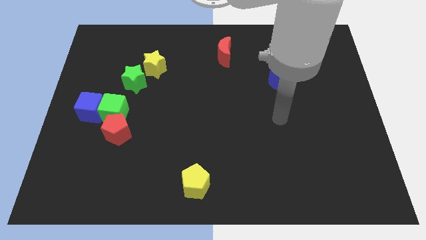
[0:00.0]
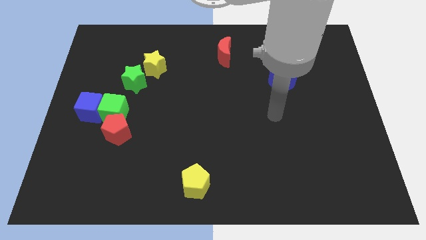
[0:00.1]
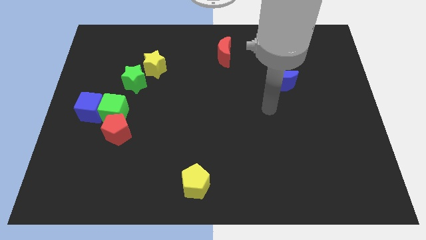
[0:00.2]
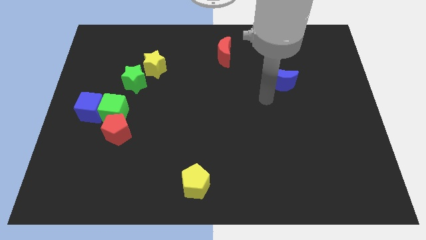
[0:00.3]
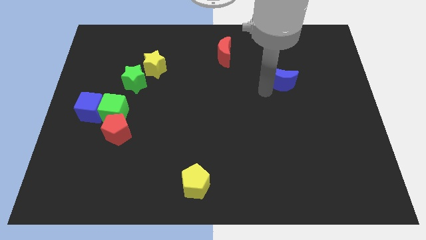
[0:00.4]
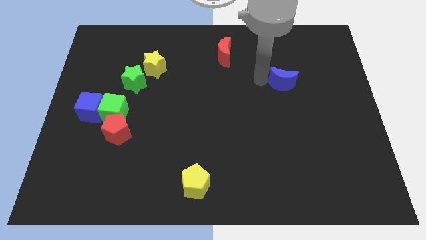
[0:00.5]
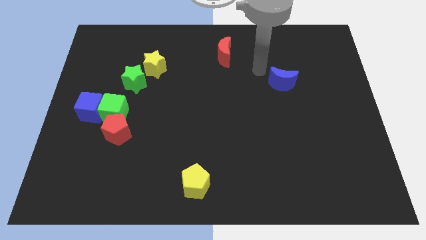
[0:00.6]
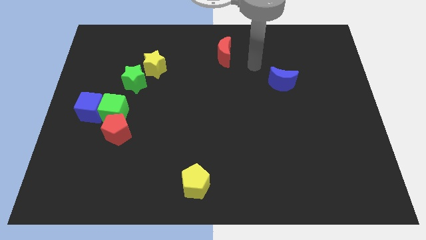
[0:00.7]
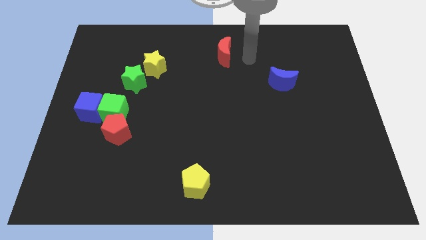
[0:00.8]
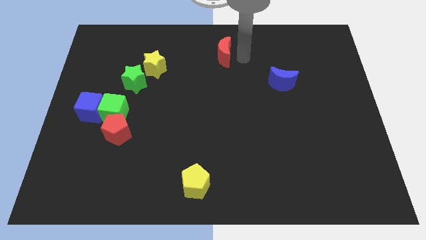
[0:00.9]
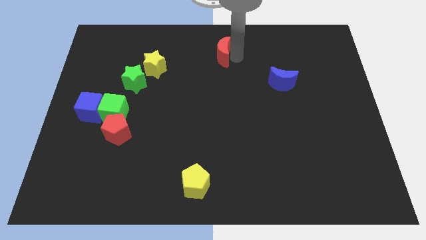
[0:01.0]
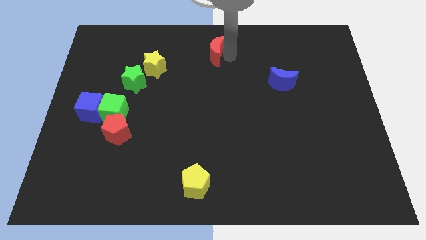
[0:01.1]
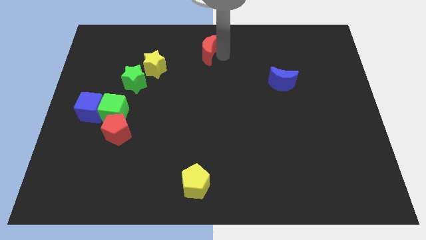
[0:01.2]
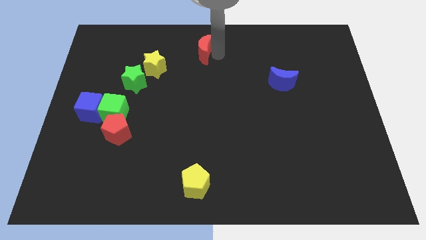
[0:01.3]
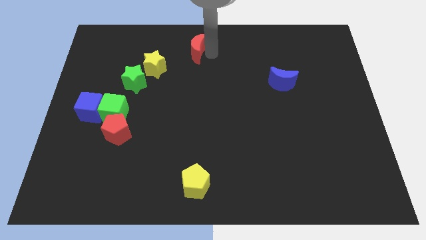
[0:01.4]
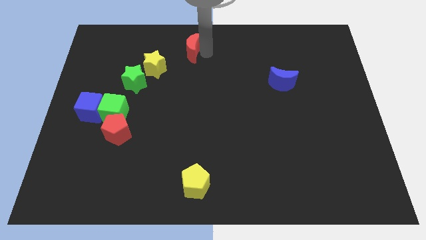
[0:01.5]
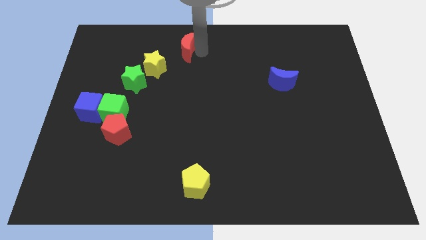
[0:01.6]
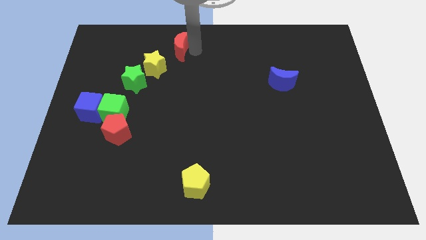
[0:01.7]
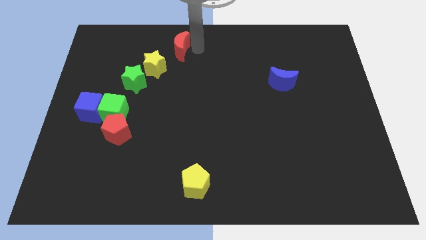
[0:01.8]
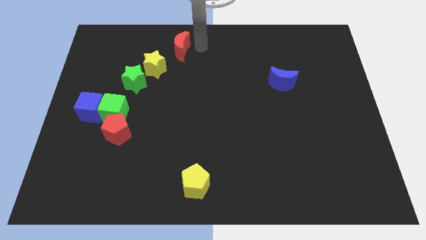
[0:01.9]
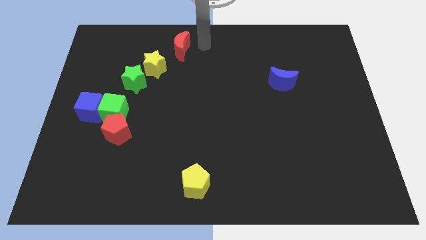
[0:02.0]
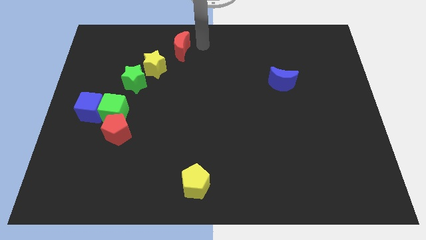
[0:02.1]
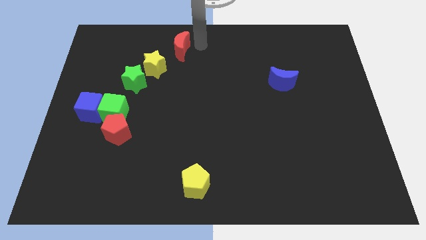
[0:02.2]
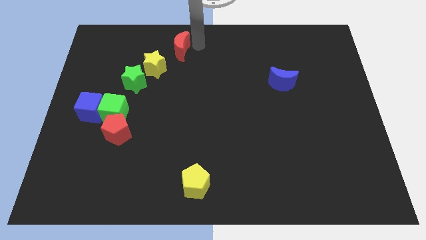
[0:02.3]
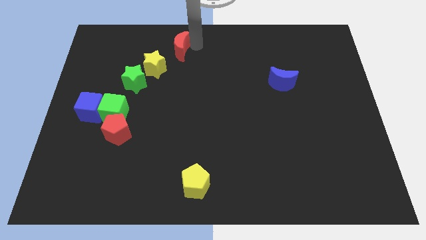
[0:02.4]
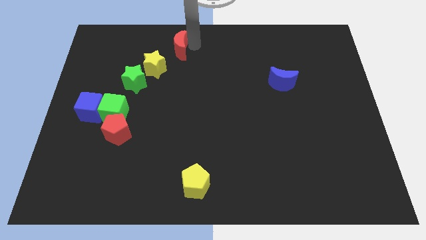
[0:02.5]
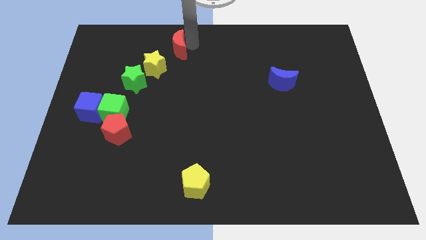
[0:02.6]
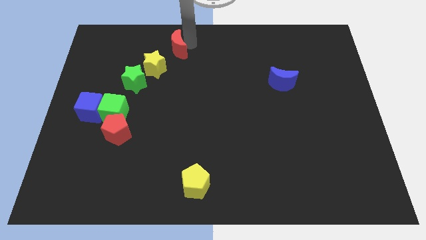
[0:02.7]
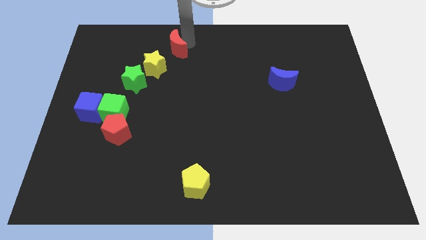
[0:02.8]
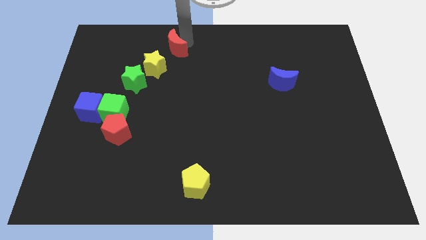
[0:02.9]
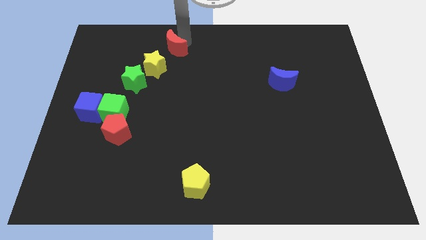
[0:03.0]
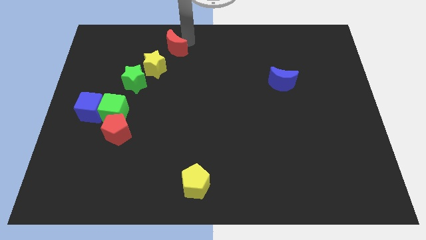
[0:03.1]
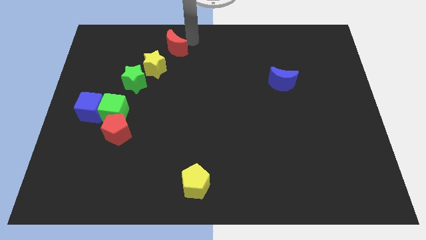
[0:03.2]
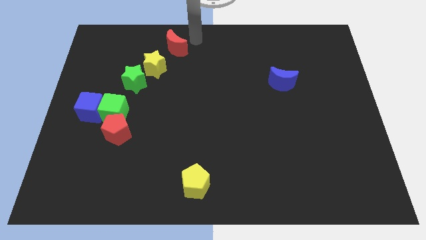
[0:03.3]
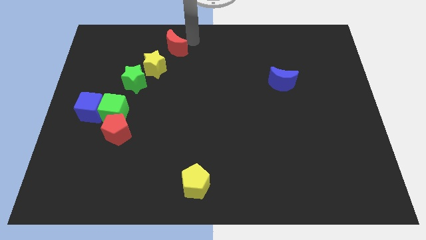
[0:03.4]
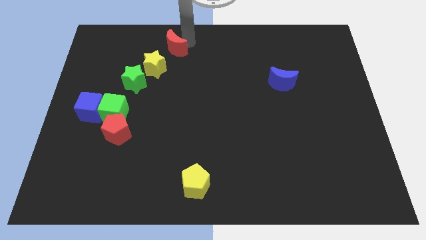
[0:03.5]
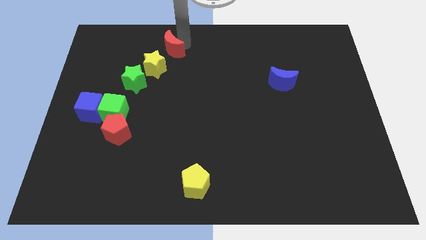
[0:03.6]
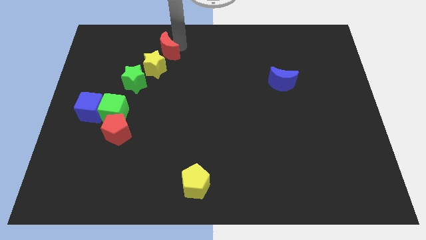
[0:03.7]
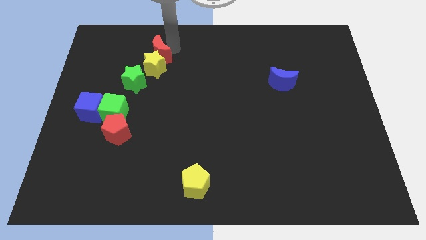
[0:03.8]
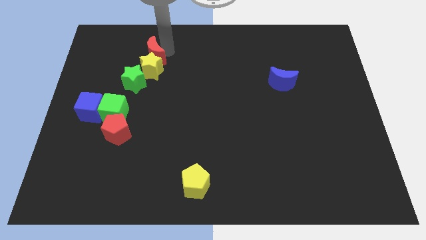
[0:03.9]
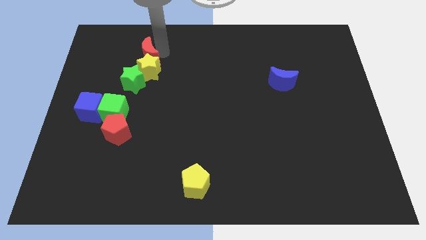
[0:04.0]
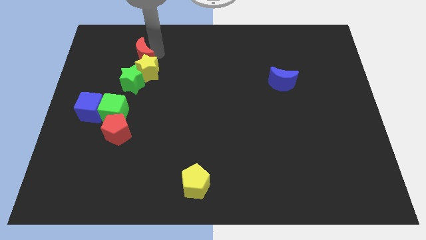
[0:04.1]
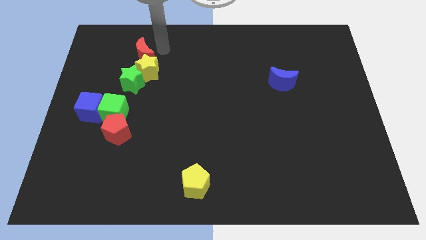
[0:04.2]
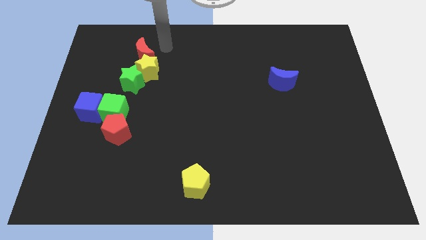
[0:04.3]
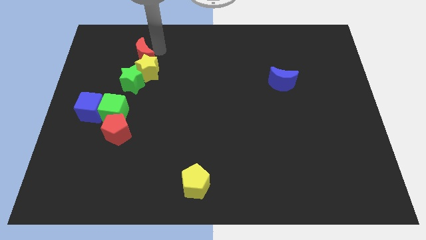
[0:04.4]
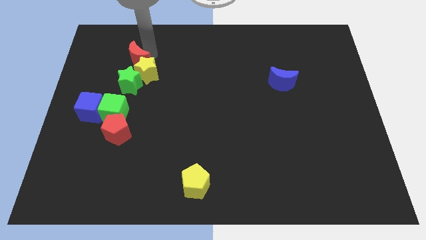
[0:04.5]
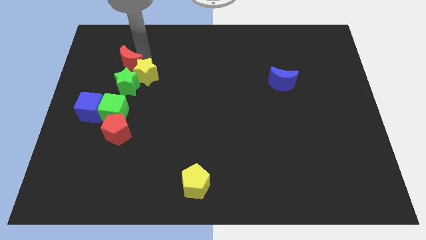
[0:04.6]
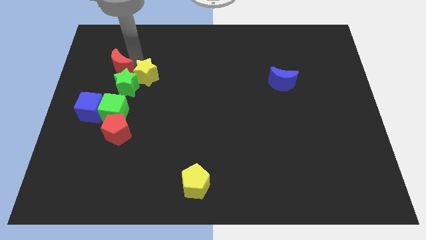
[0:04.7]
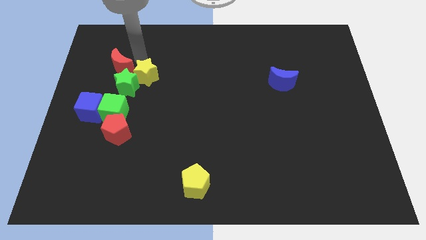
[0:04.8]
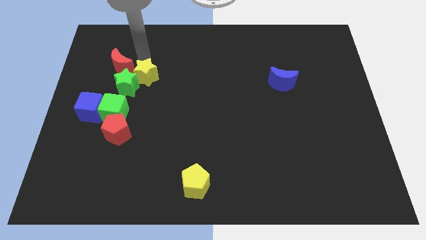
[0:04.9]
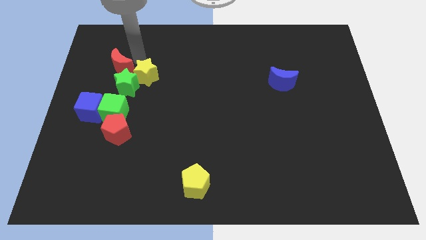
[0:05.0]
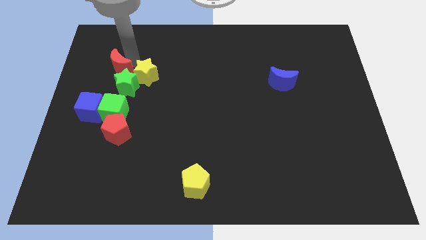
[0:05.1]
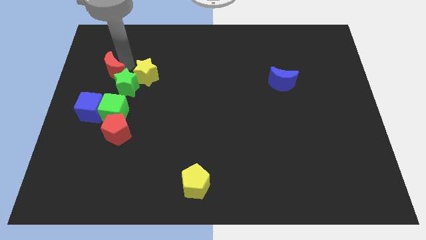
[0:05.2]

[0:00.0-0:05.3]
push the red moon above the blue cube

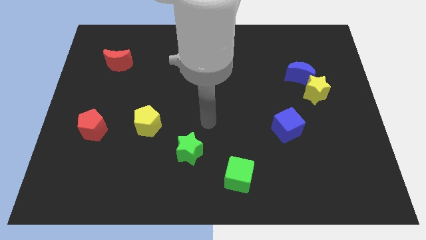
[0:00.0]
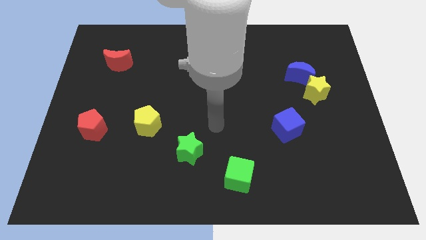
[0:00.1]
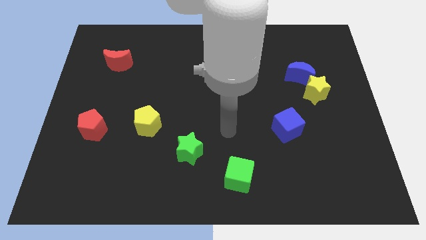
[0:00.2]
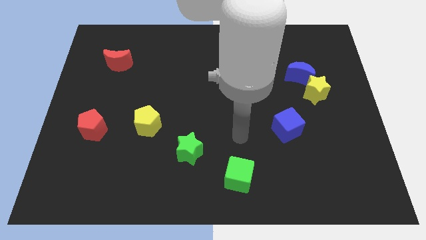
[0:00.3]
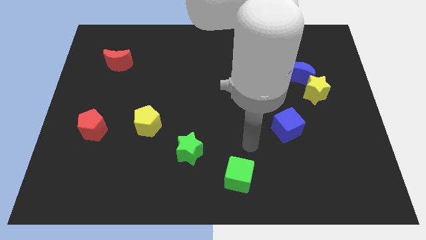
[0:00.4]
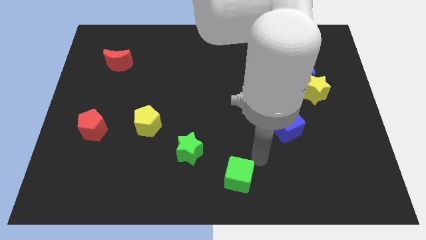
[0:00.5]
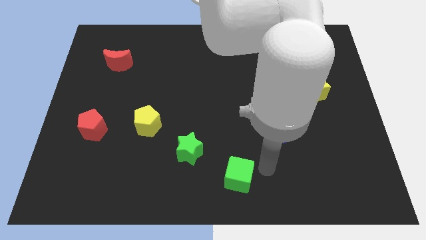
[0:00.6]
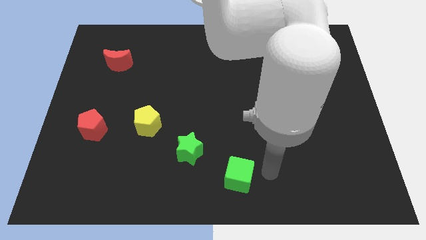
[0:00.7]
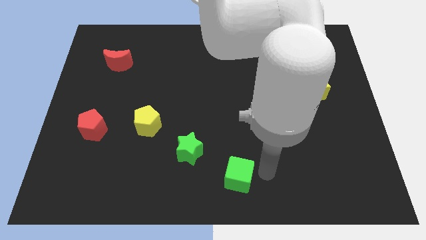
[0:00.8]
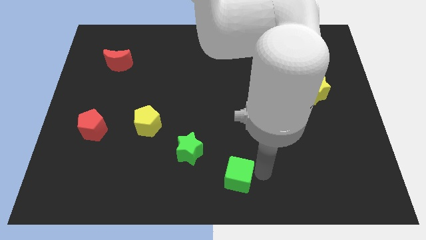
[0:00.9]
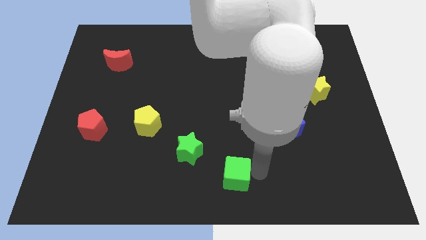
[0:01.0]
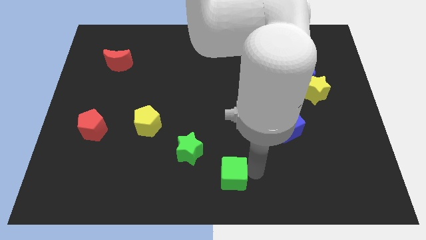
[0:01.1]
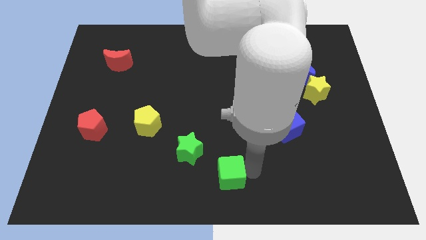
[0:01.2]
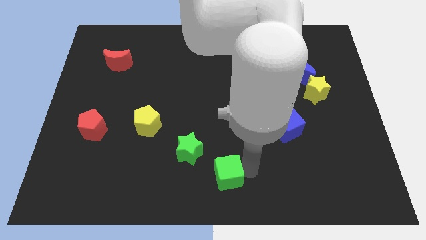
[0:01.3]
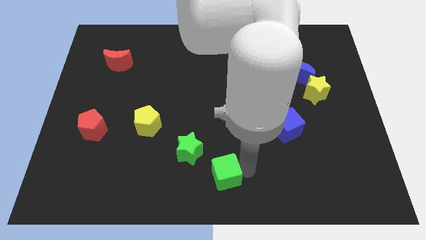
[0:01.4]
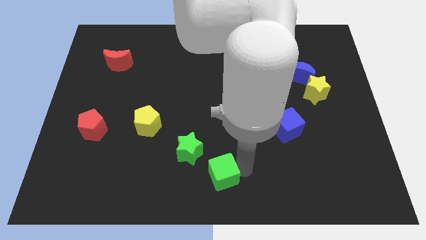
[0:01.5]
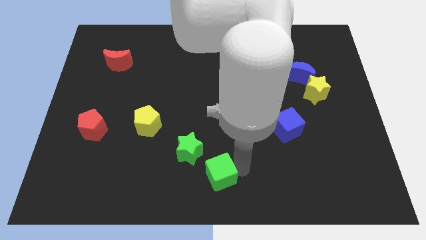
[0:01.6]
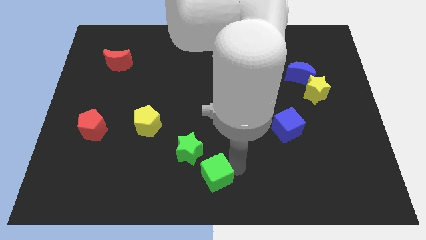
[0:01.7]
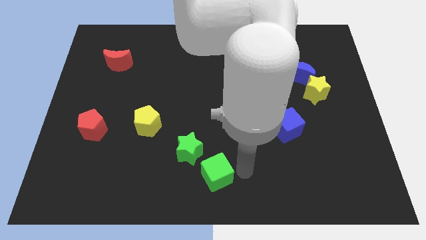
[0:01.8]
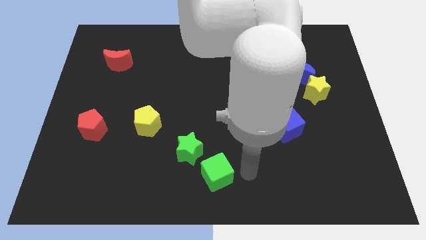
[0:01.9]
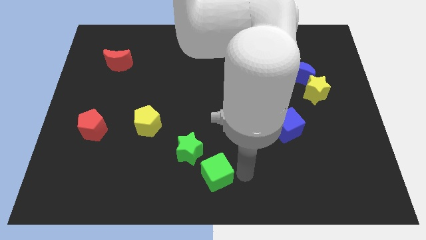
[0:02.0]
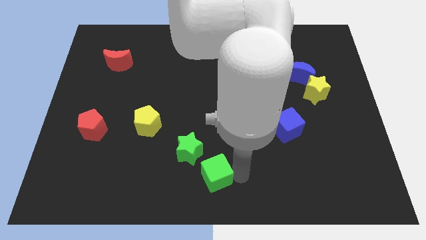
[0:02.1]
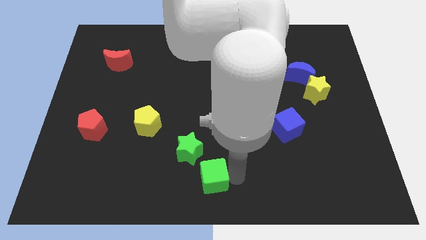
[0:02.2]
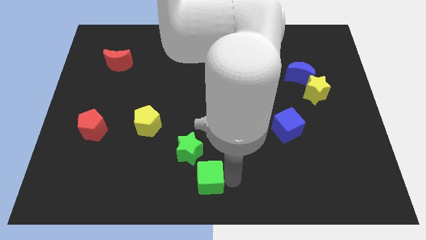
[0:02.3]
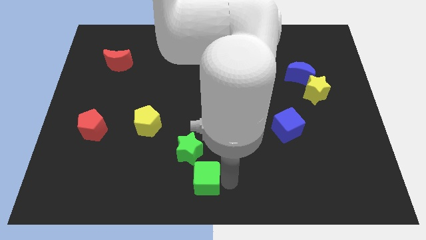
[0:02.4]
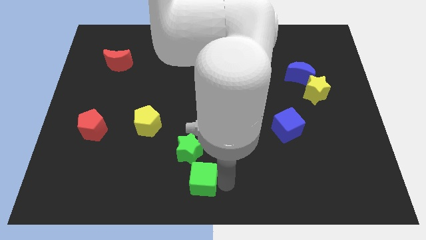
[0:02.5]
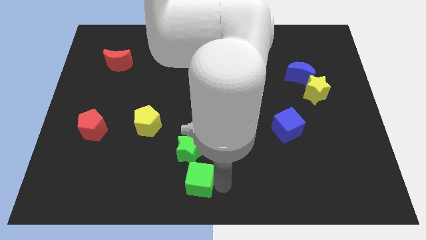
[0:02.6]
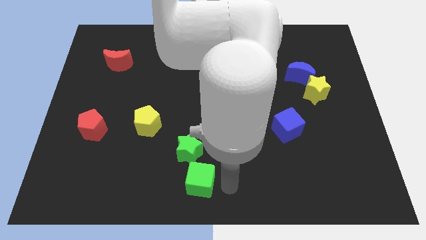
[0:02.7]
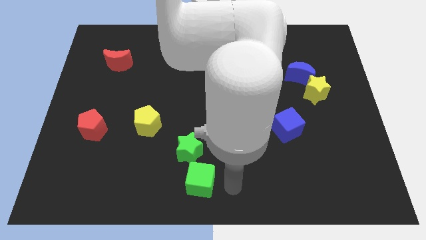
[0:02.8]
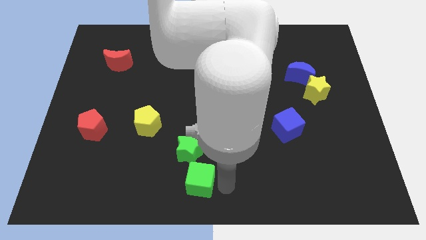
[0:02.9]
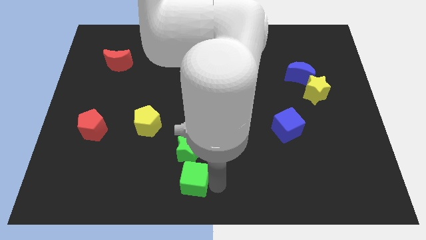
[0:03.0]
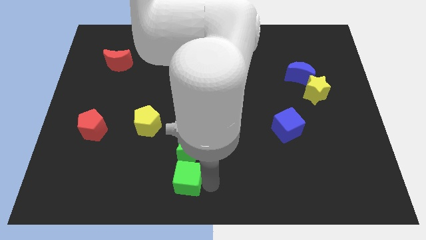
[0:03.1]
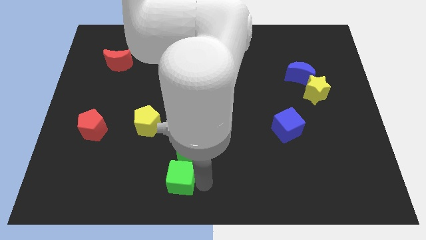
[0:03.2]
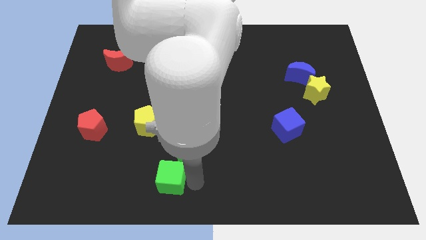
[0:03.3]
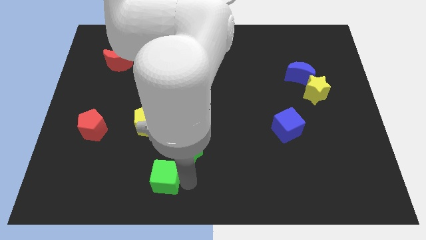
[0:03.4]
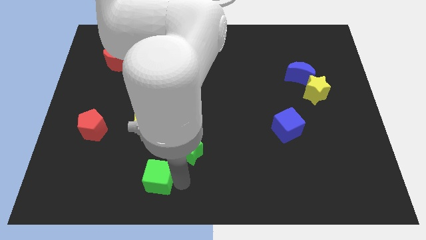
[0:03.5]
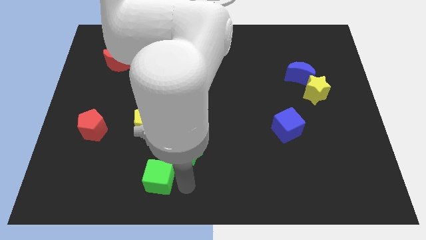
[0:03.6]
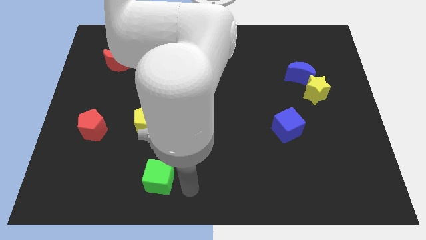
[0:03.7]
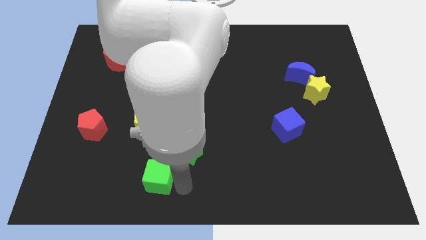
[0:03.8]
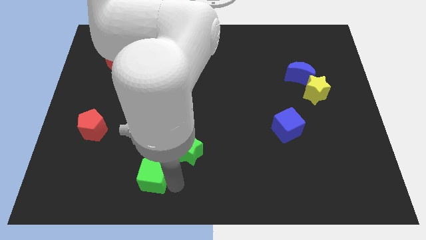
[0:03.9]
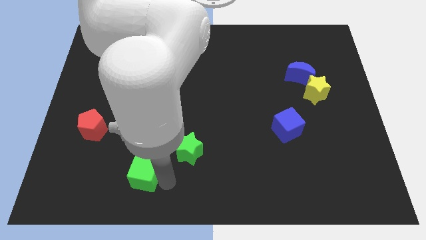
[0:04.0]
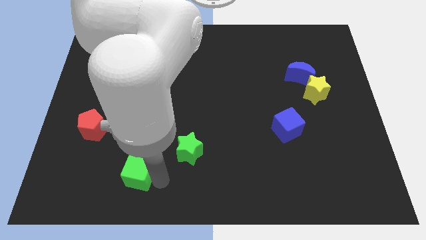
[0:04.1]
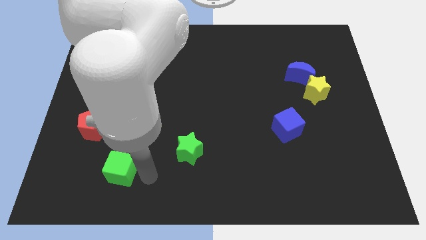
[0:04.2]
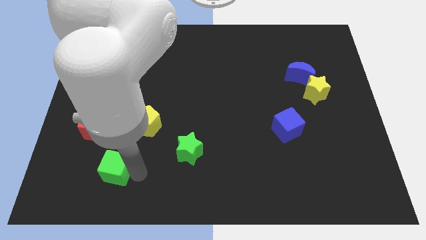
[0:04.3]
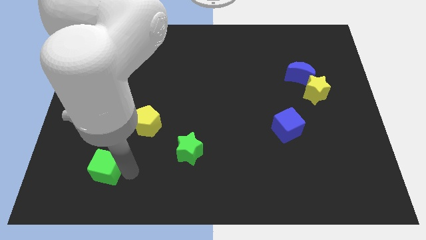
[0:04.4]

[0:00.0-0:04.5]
push the green cube to the bottom of the red pentagon
